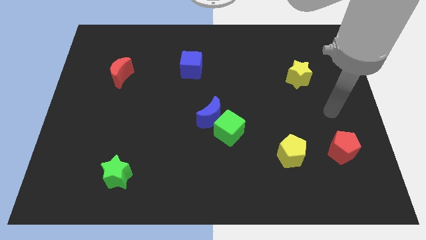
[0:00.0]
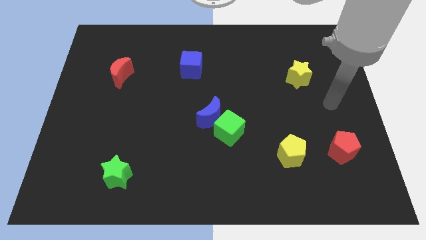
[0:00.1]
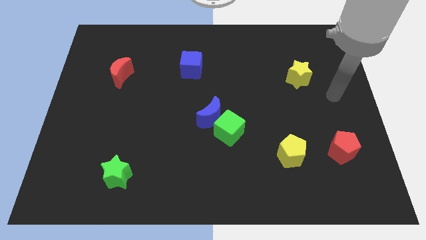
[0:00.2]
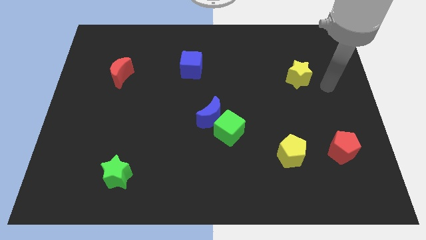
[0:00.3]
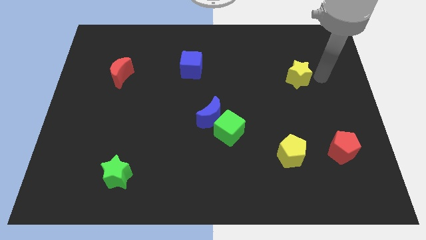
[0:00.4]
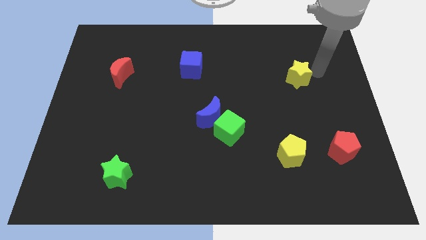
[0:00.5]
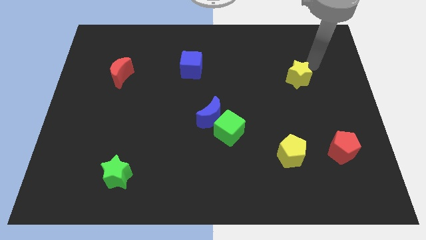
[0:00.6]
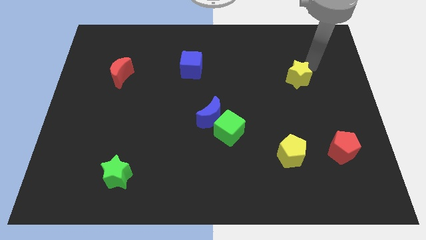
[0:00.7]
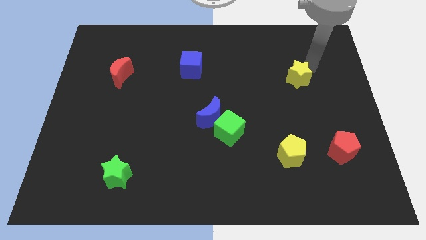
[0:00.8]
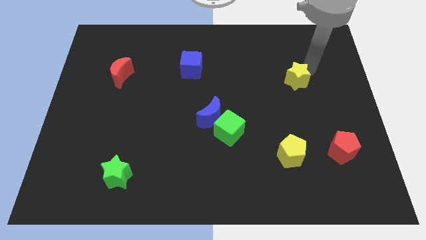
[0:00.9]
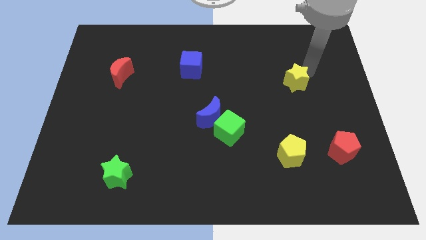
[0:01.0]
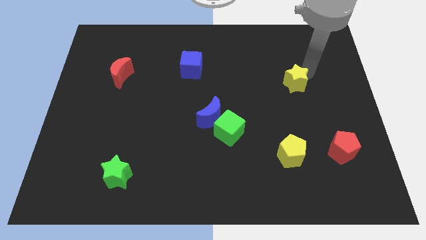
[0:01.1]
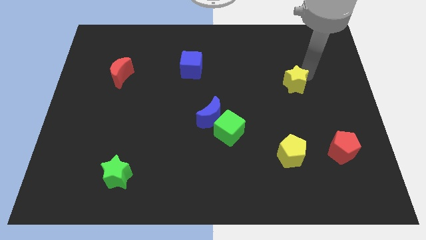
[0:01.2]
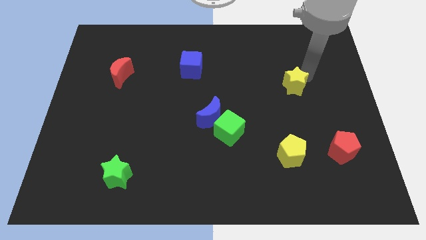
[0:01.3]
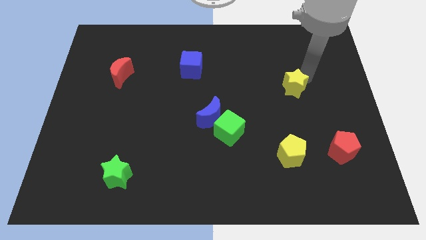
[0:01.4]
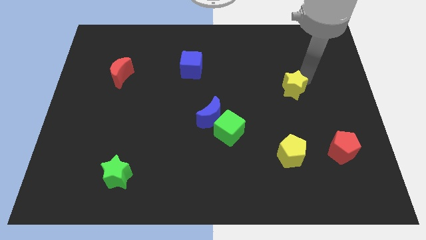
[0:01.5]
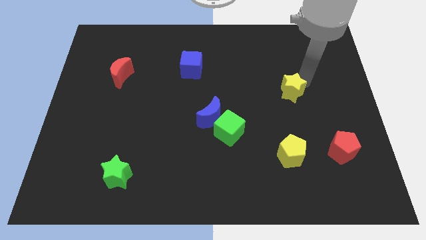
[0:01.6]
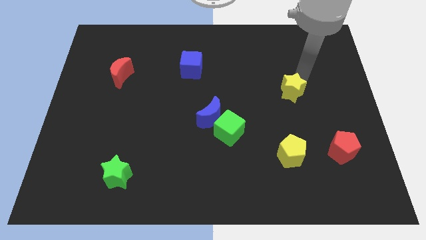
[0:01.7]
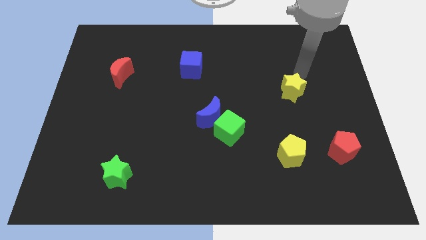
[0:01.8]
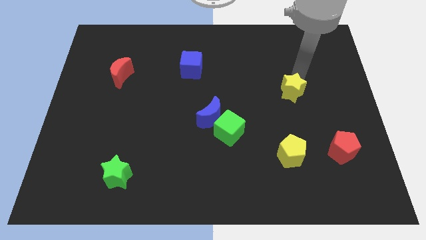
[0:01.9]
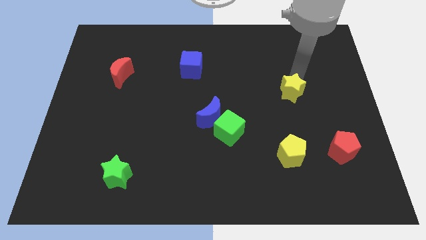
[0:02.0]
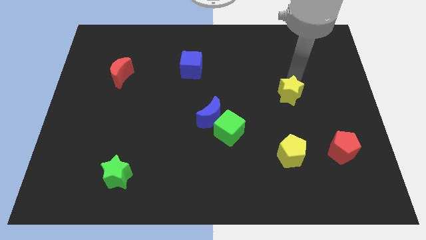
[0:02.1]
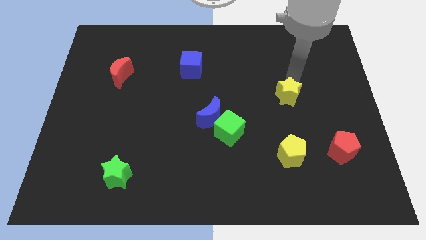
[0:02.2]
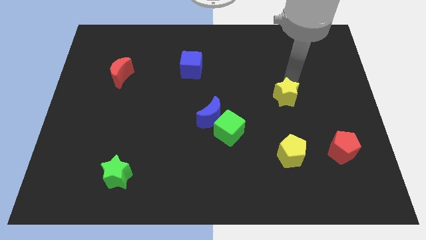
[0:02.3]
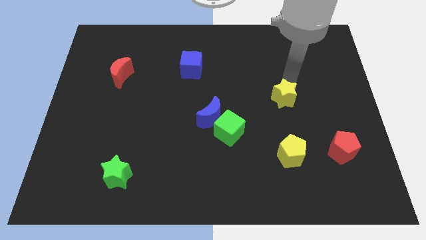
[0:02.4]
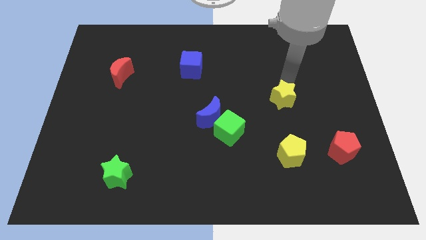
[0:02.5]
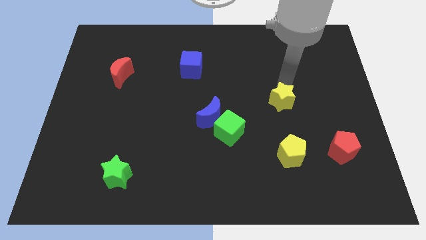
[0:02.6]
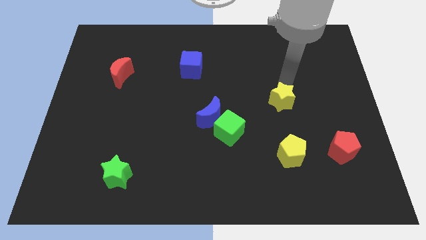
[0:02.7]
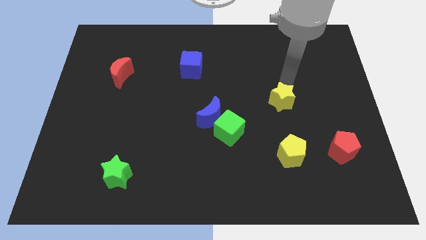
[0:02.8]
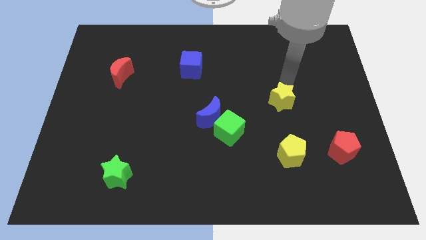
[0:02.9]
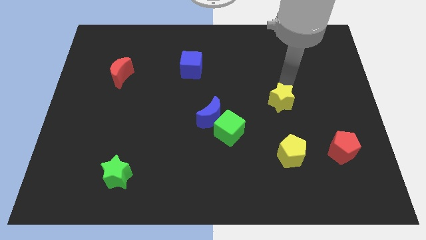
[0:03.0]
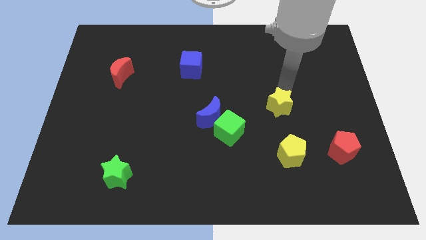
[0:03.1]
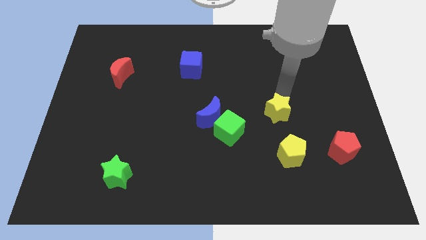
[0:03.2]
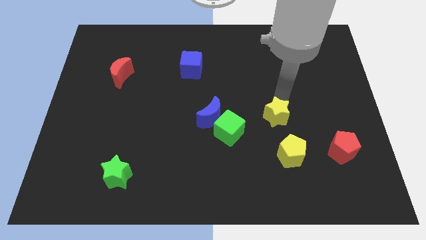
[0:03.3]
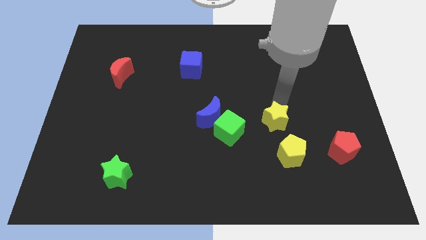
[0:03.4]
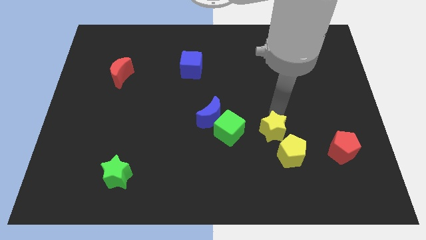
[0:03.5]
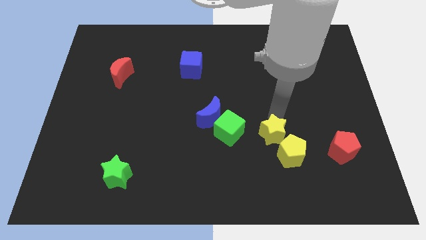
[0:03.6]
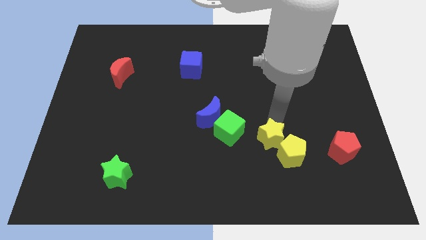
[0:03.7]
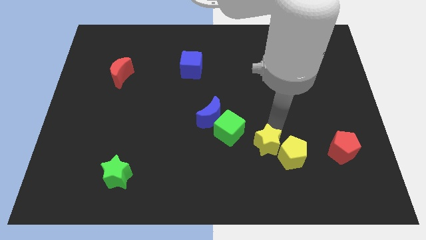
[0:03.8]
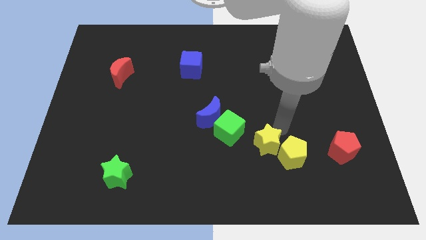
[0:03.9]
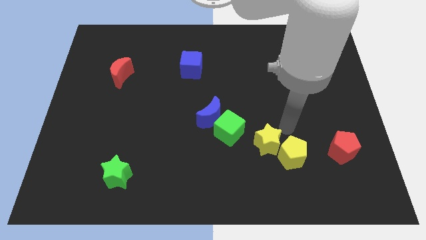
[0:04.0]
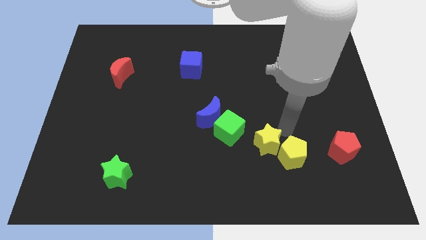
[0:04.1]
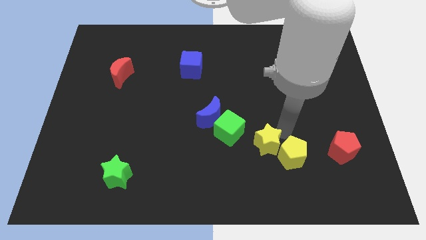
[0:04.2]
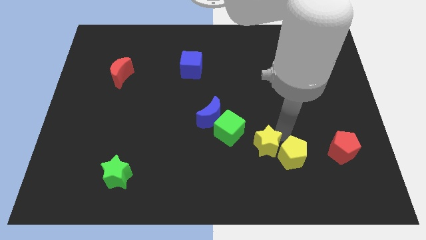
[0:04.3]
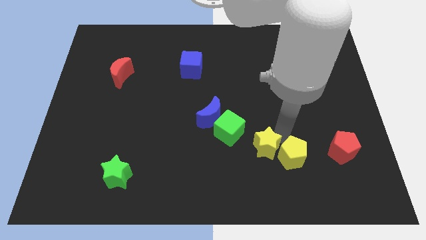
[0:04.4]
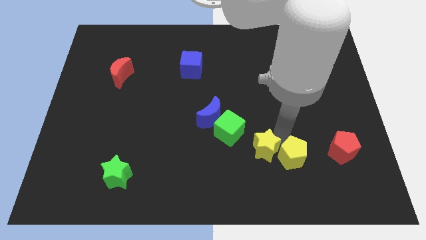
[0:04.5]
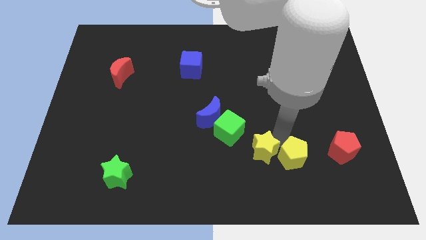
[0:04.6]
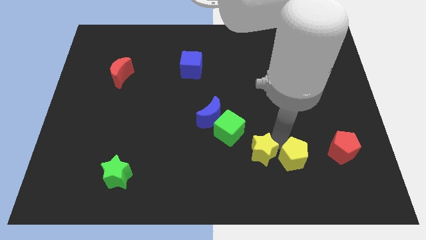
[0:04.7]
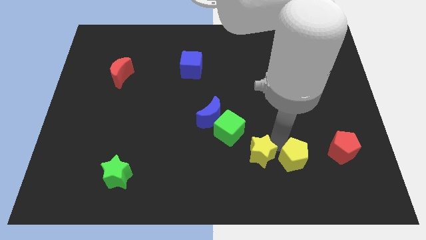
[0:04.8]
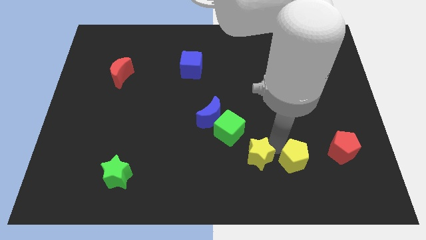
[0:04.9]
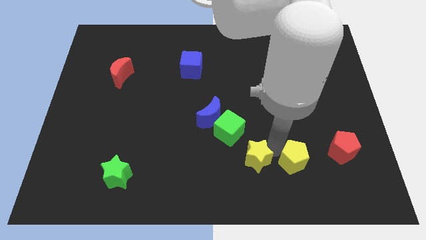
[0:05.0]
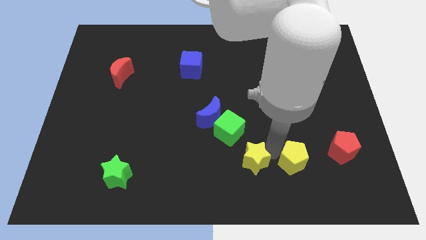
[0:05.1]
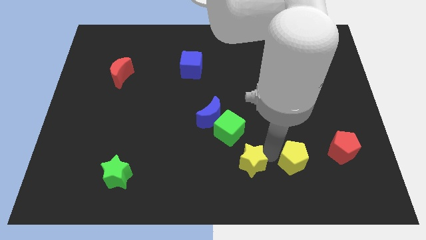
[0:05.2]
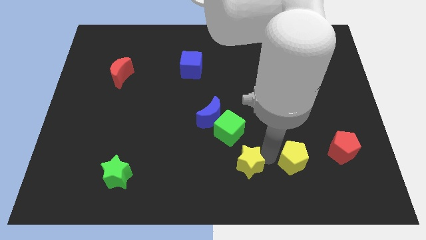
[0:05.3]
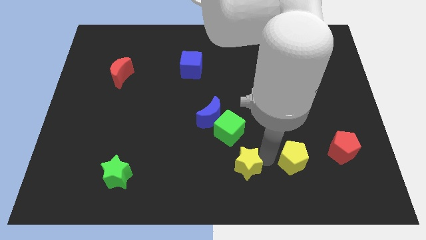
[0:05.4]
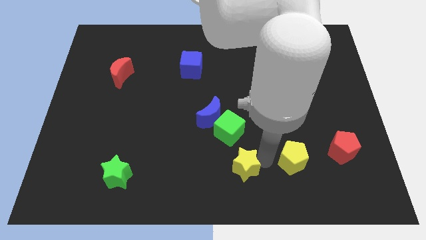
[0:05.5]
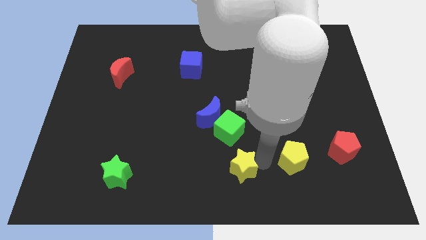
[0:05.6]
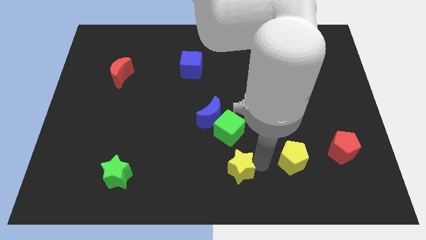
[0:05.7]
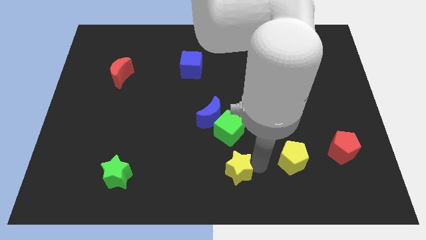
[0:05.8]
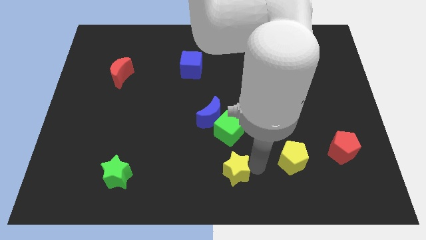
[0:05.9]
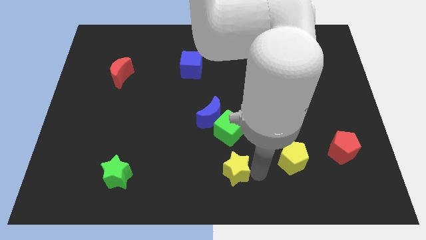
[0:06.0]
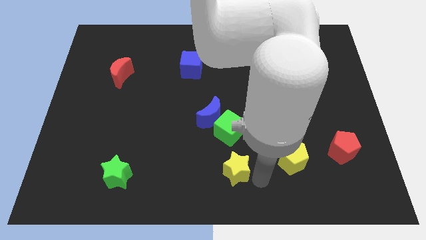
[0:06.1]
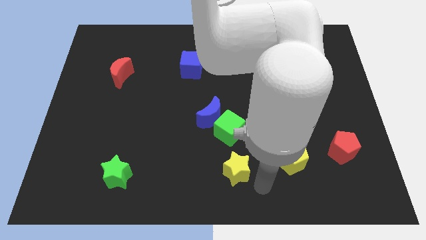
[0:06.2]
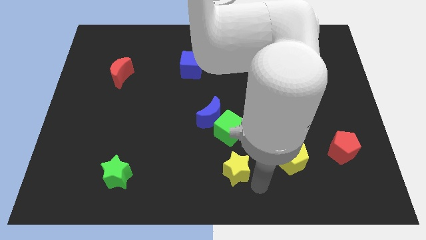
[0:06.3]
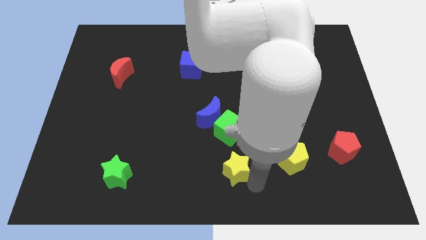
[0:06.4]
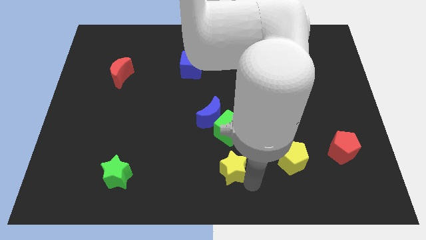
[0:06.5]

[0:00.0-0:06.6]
push the yellow star to the bottom of the blue moon
